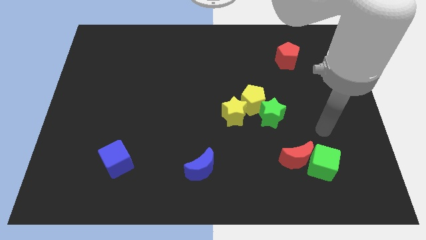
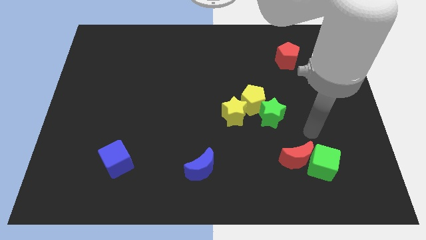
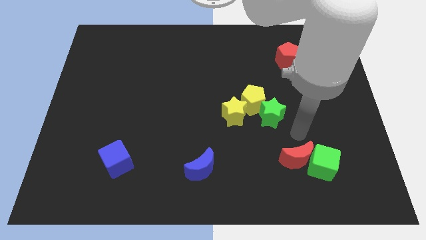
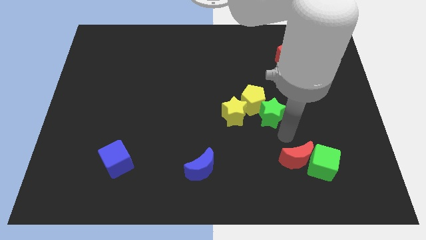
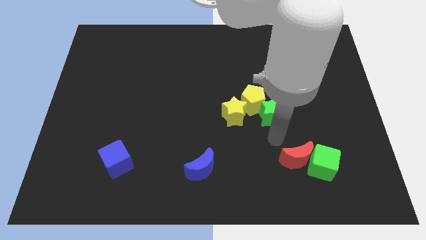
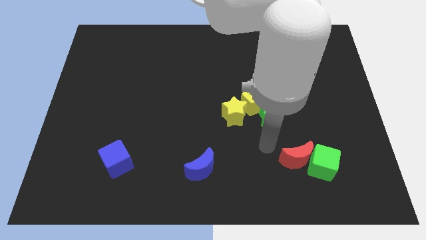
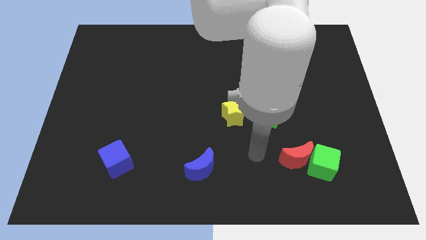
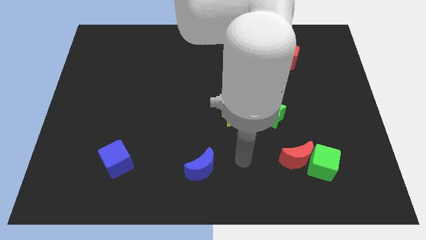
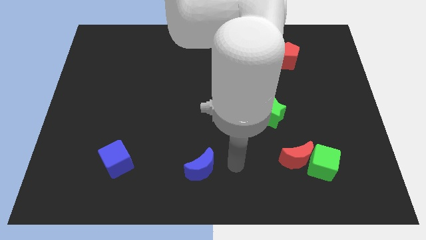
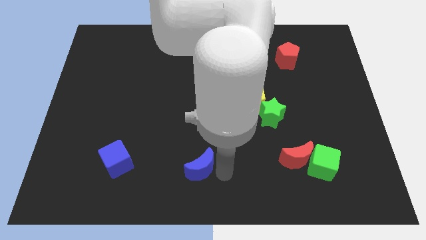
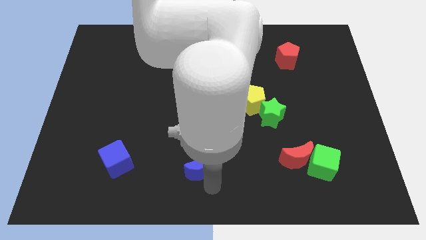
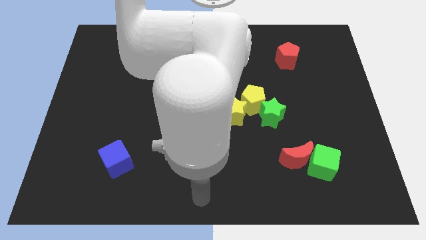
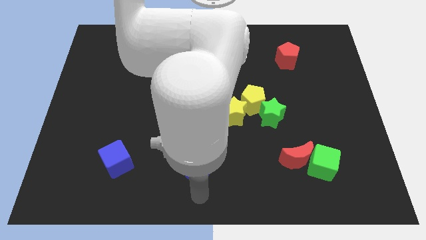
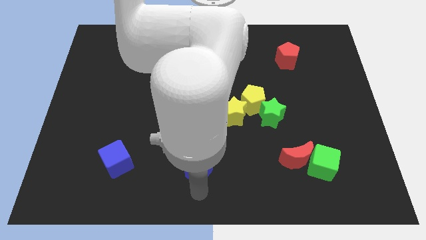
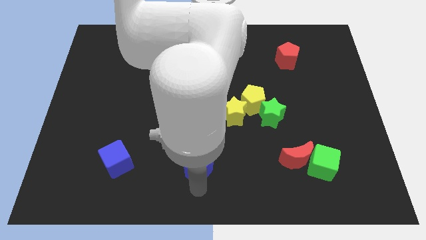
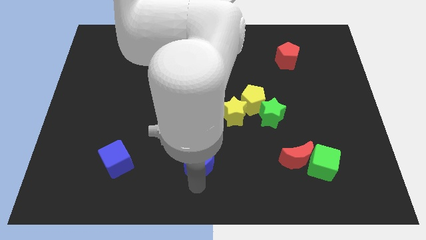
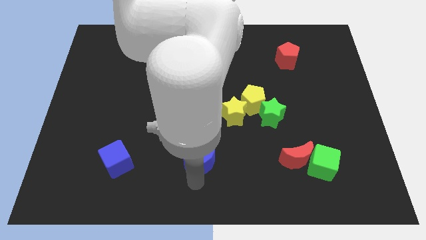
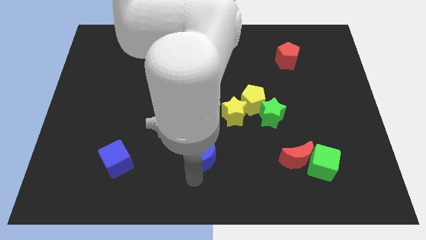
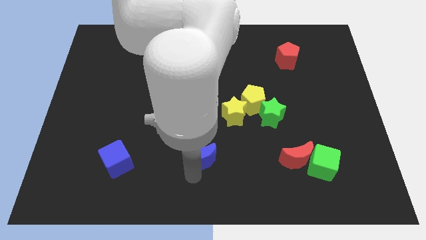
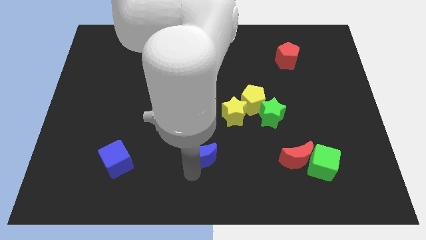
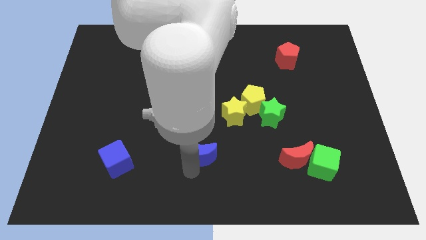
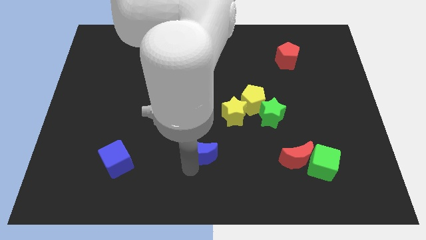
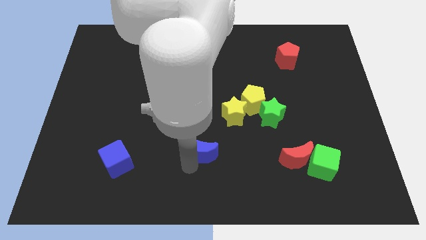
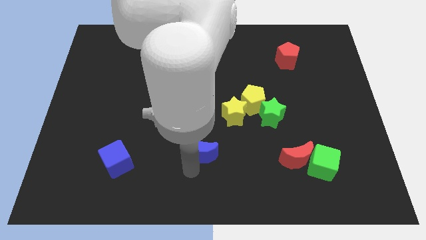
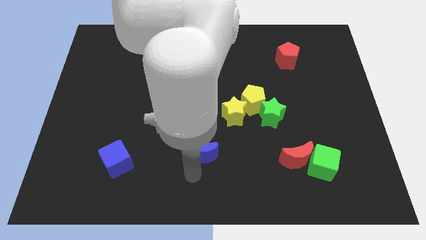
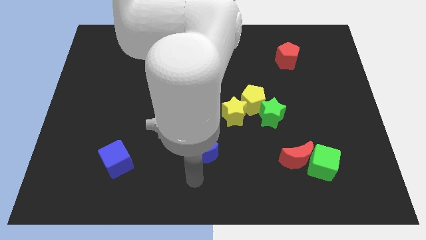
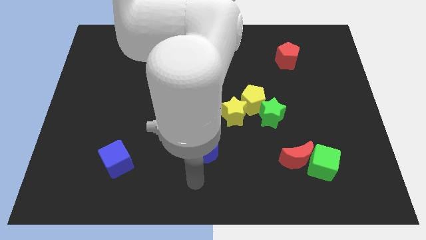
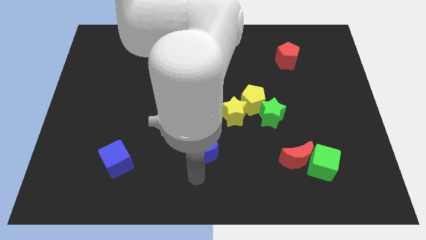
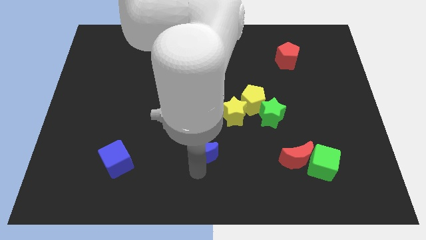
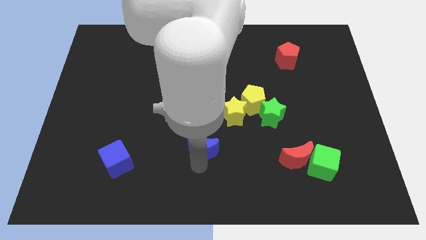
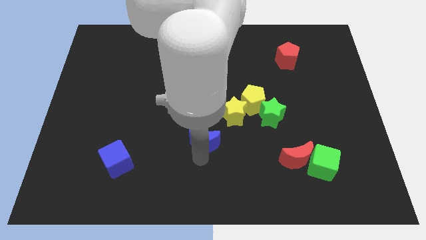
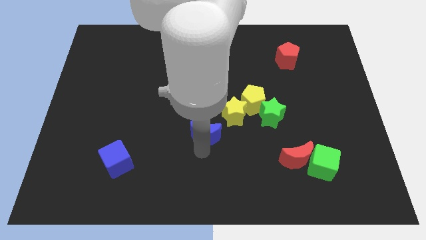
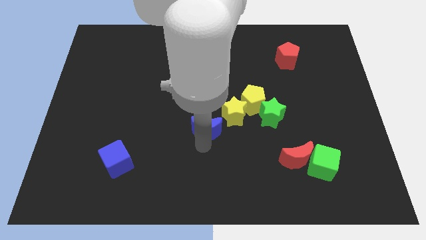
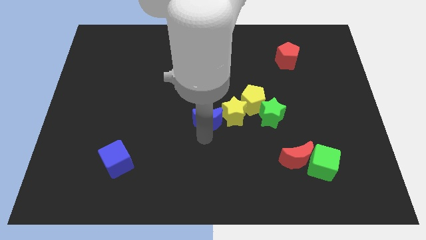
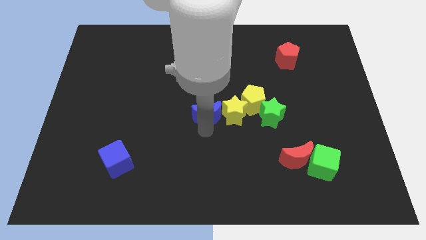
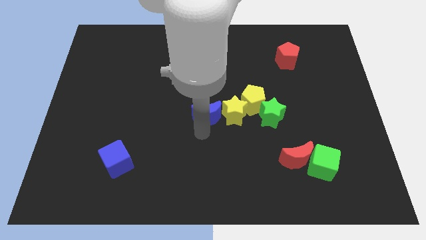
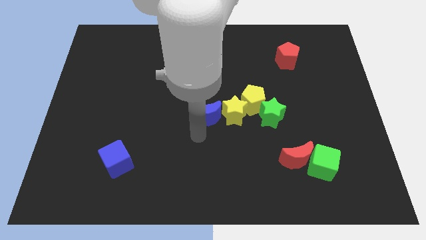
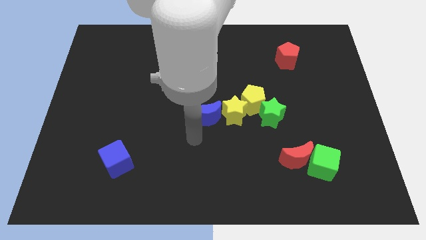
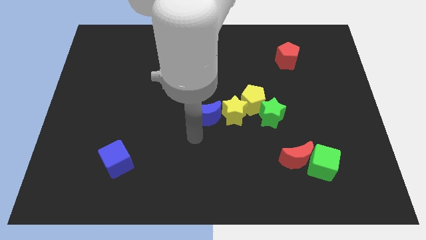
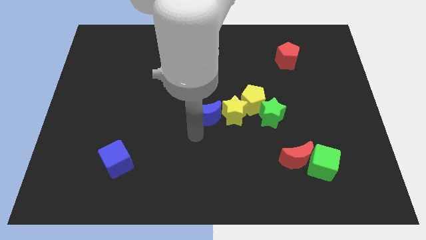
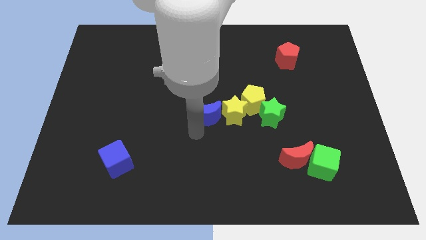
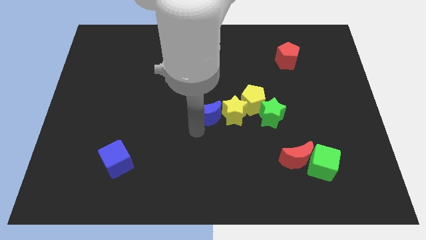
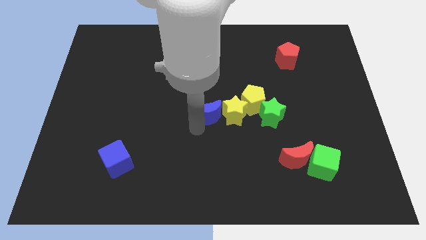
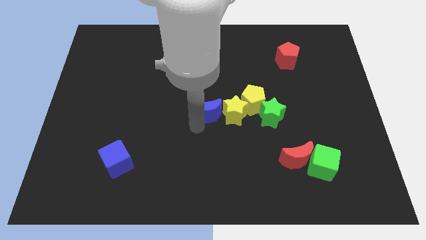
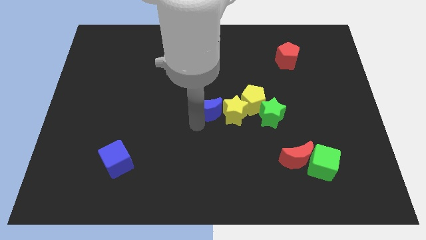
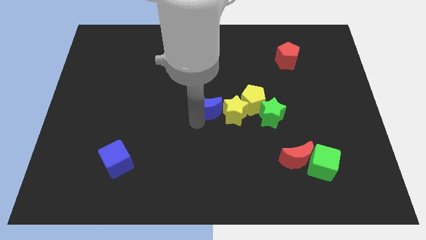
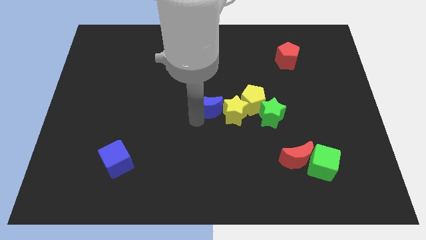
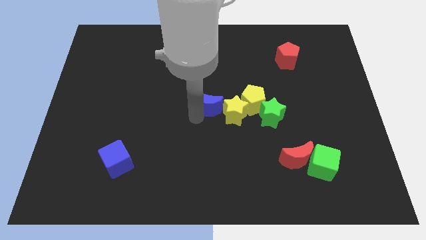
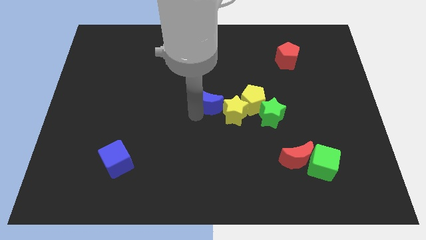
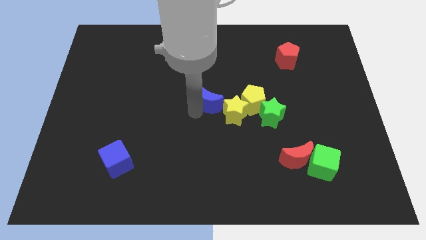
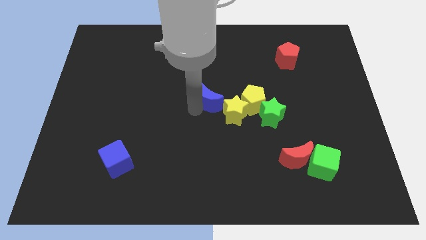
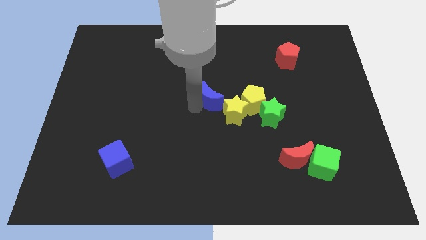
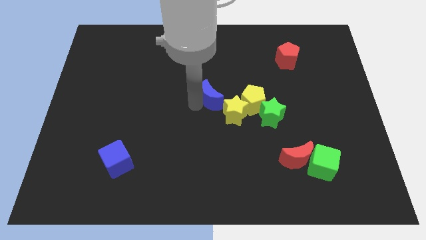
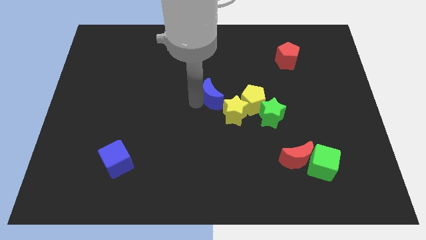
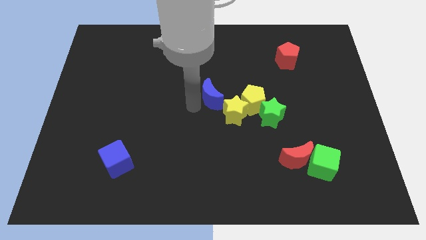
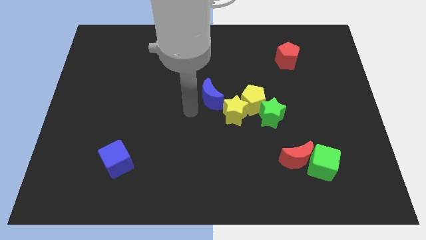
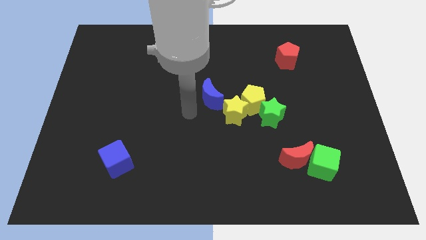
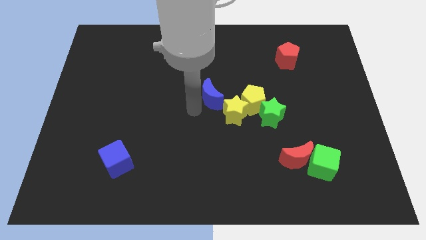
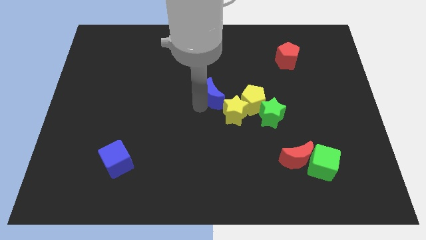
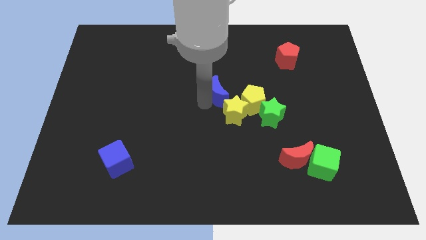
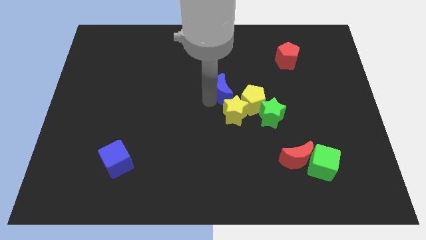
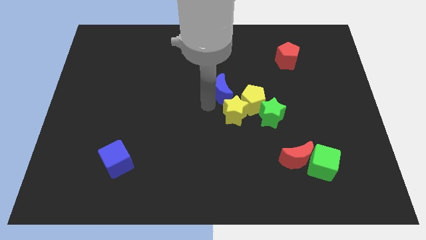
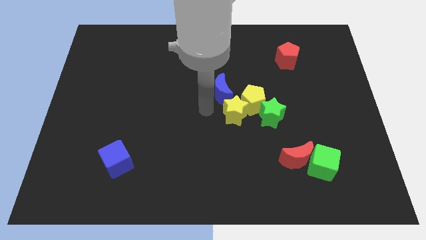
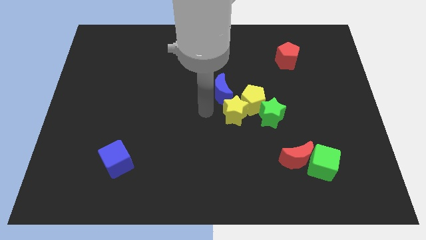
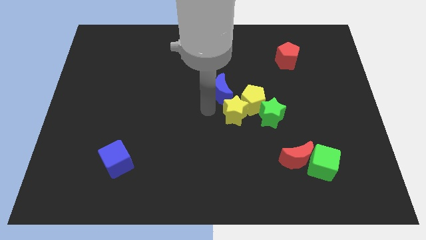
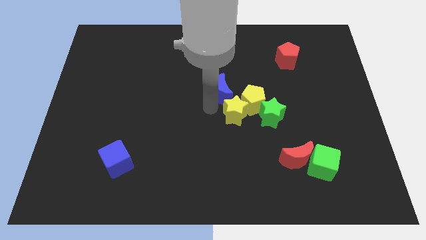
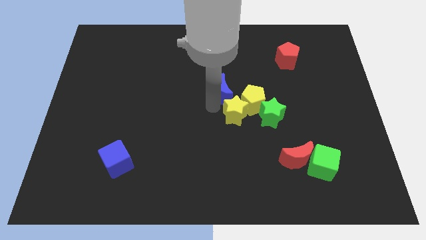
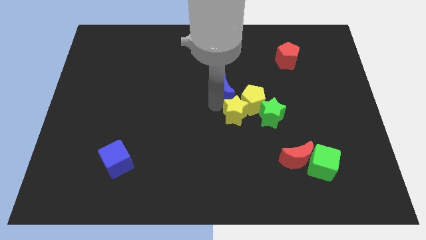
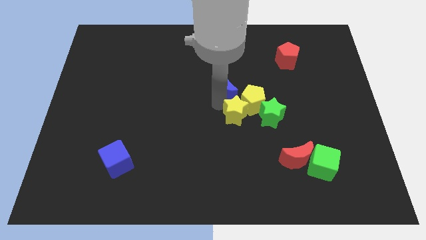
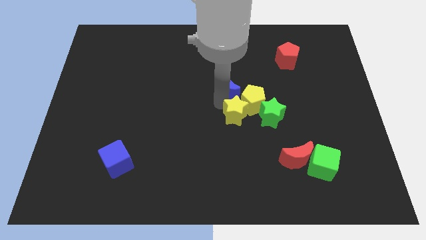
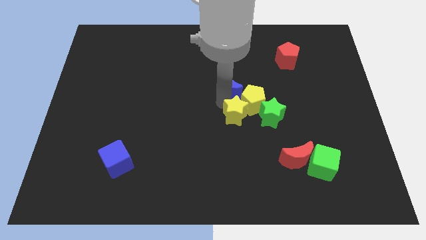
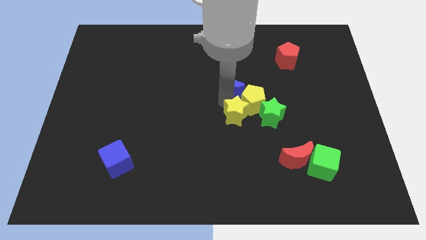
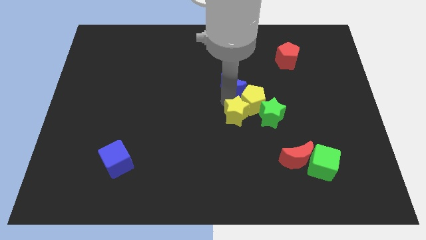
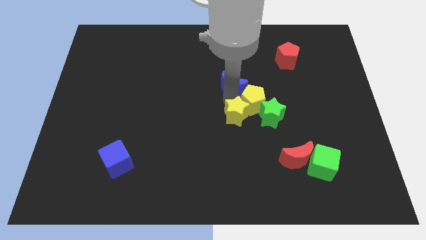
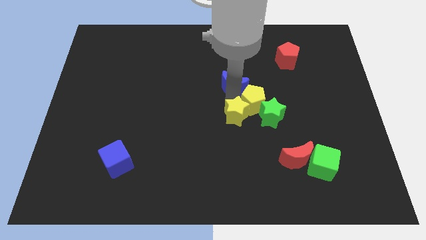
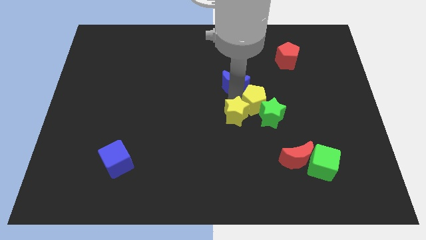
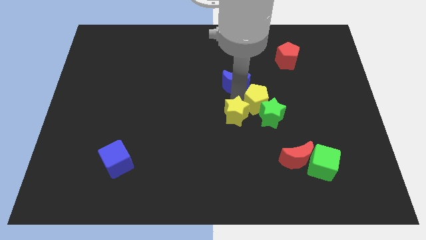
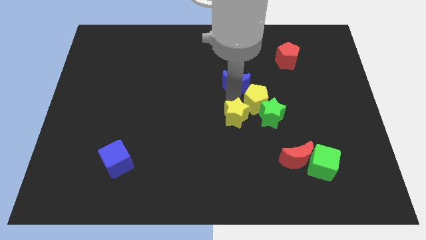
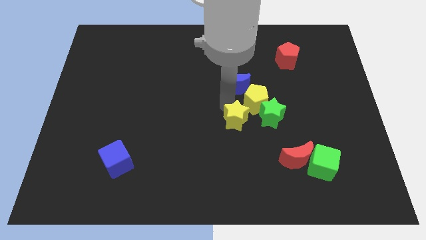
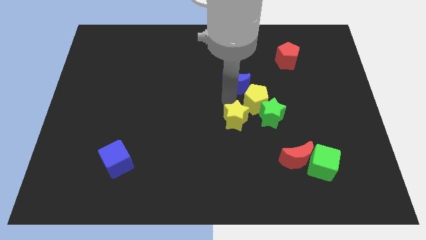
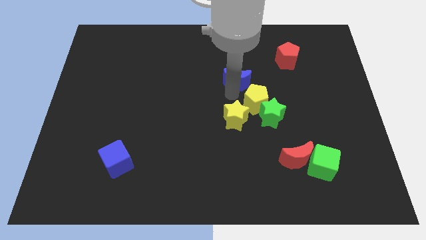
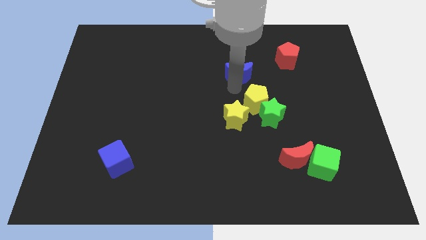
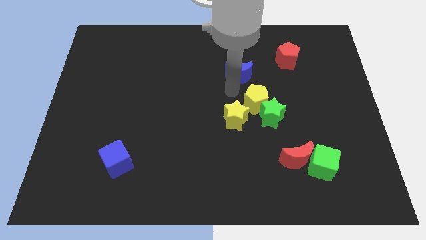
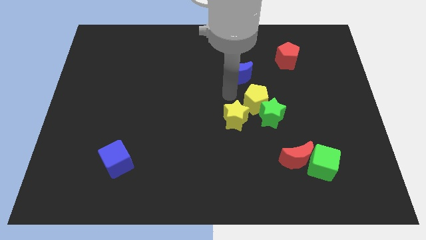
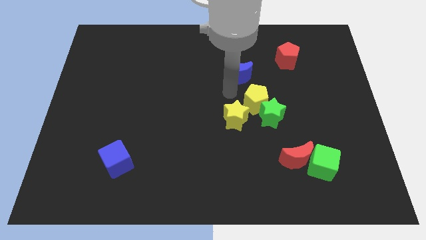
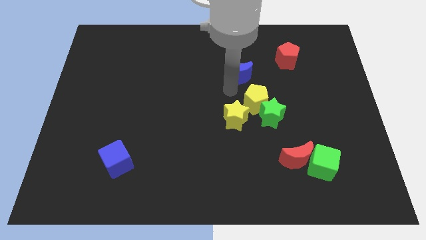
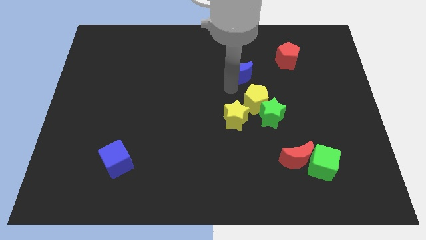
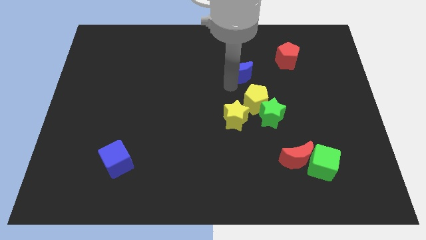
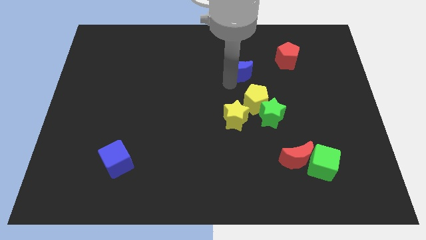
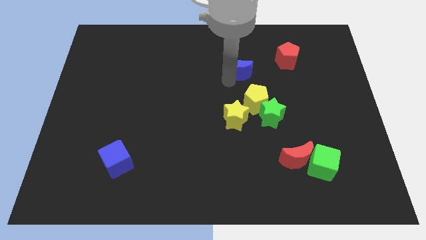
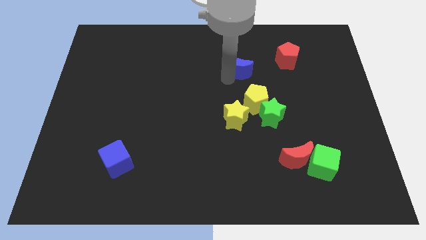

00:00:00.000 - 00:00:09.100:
put the blue moon to the left side of the red pentagon
